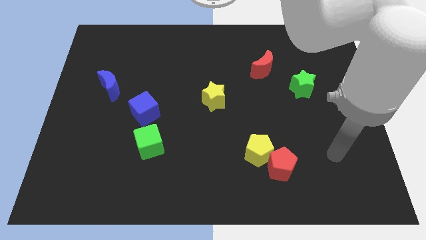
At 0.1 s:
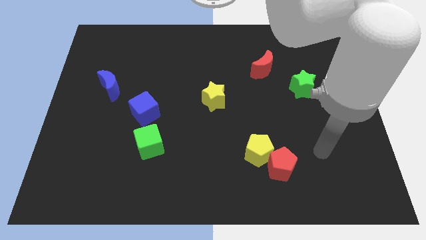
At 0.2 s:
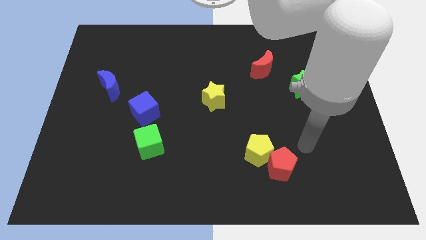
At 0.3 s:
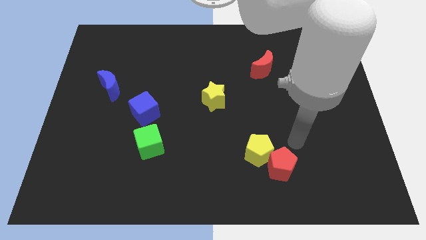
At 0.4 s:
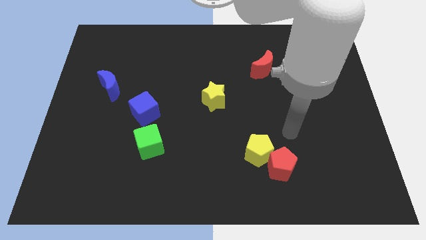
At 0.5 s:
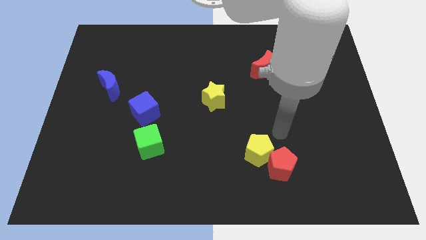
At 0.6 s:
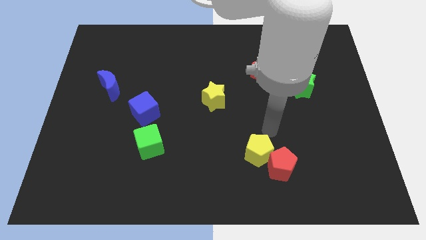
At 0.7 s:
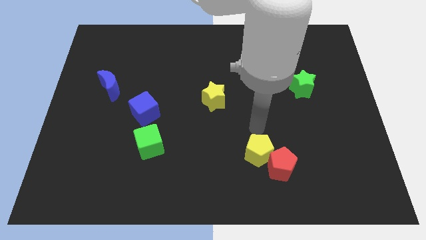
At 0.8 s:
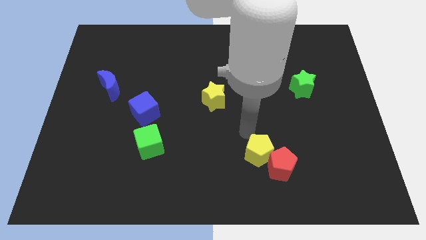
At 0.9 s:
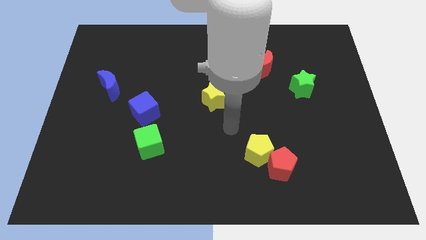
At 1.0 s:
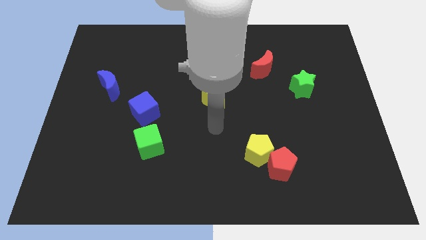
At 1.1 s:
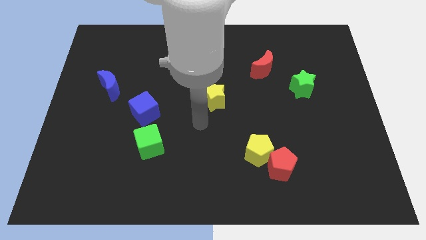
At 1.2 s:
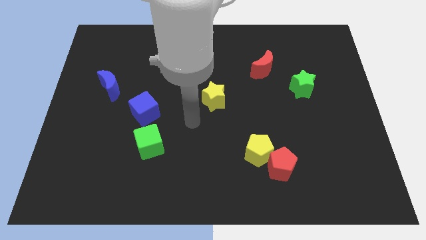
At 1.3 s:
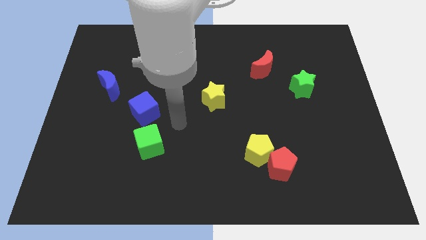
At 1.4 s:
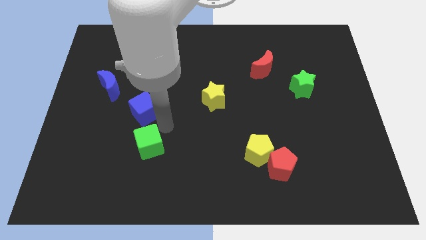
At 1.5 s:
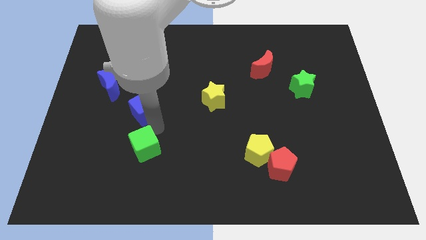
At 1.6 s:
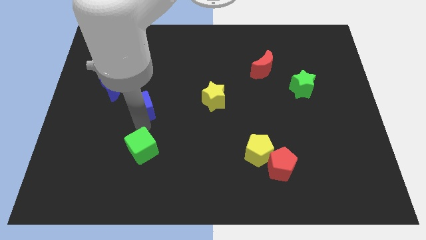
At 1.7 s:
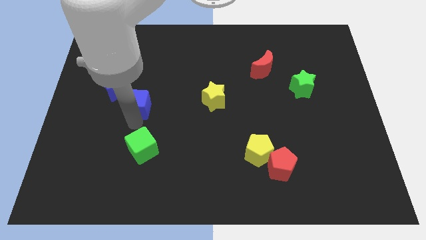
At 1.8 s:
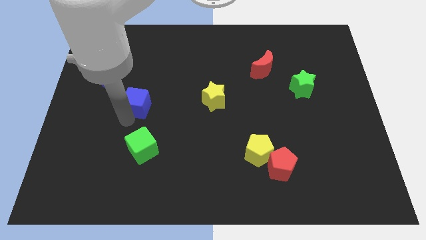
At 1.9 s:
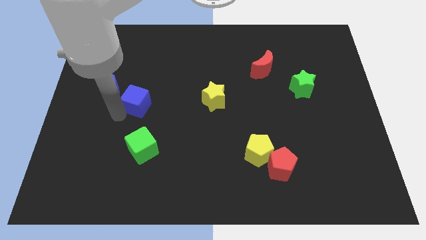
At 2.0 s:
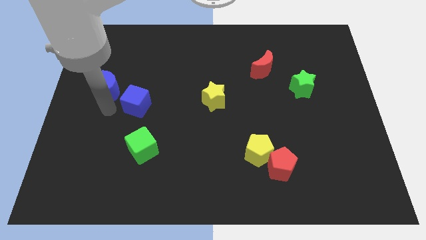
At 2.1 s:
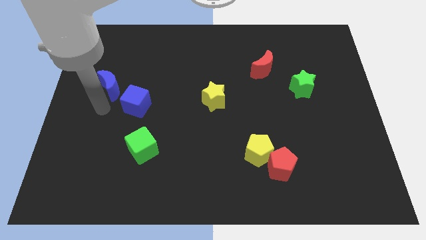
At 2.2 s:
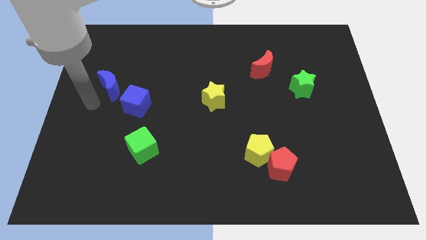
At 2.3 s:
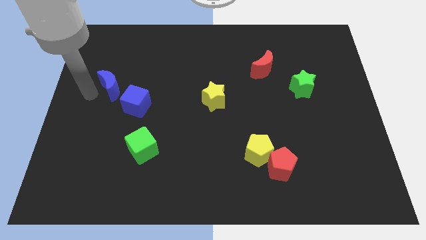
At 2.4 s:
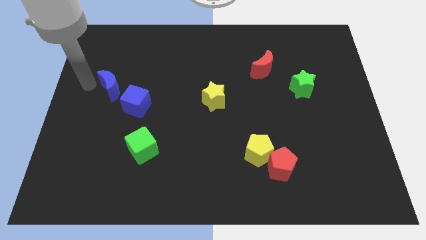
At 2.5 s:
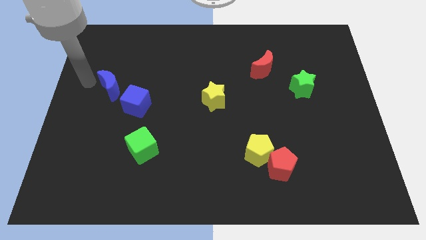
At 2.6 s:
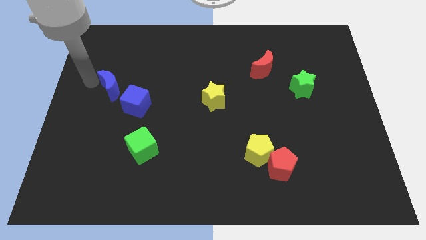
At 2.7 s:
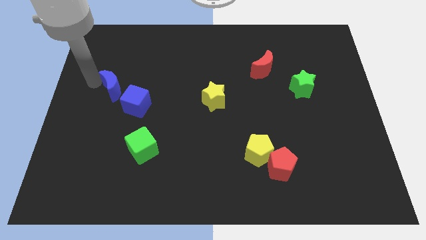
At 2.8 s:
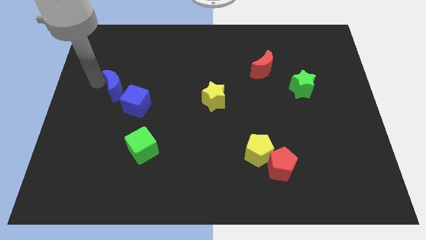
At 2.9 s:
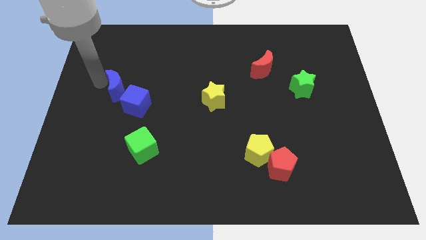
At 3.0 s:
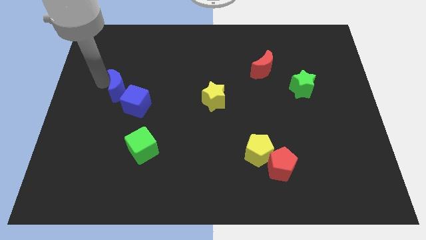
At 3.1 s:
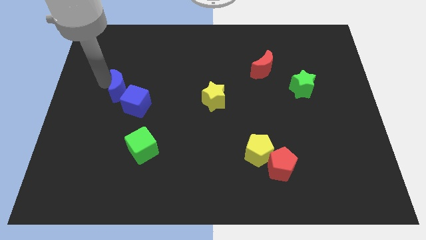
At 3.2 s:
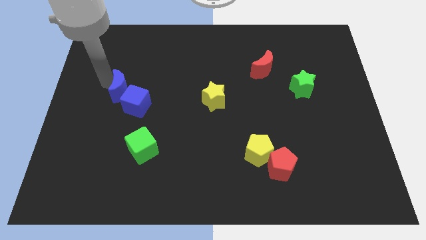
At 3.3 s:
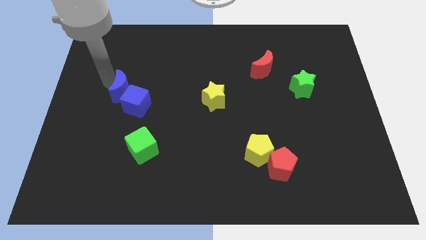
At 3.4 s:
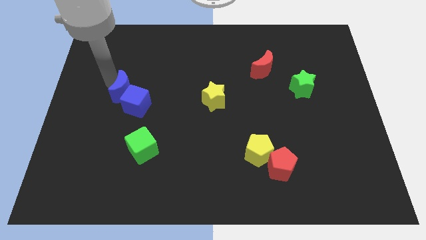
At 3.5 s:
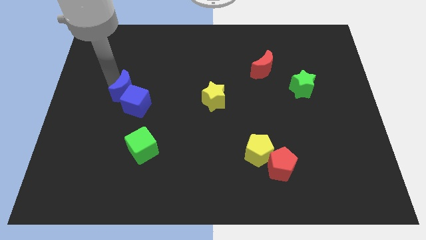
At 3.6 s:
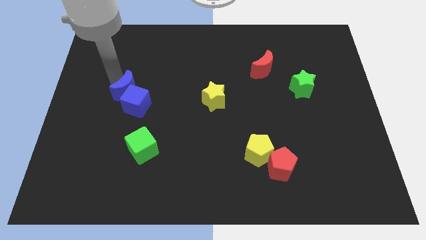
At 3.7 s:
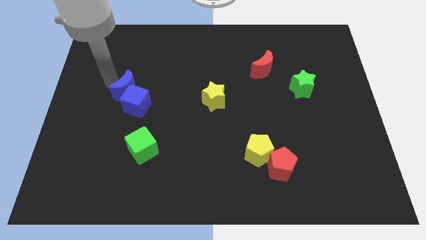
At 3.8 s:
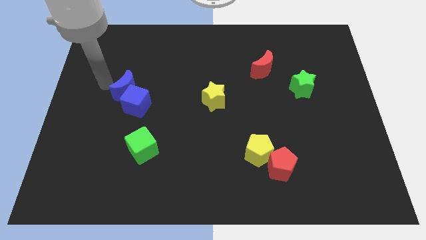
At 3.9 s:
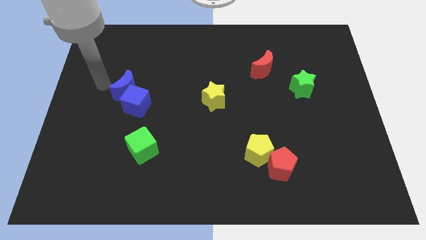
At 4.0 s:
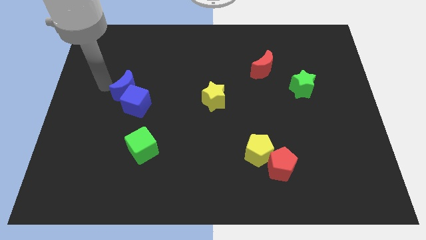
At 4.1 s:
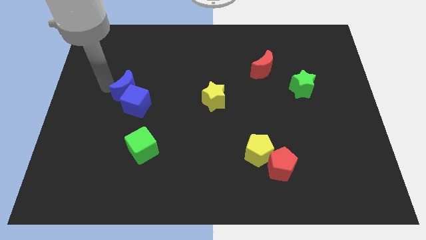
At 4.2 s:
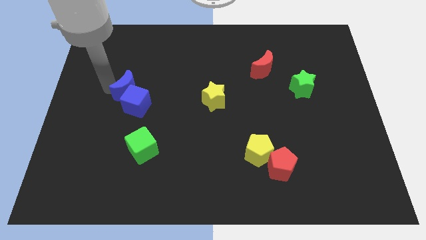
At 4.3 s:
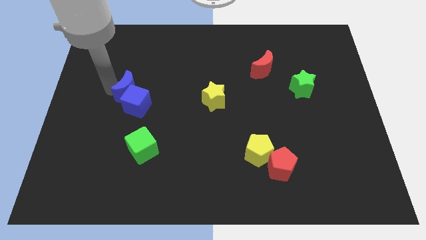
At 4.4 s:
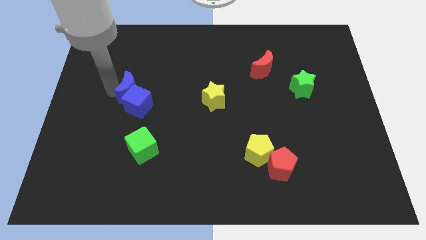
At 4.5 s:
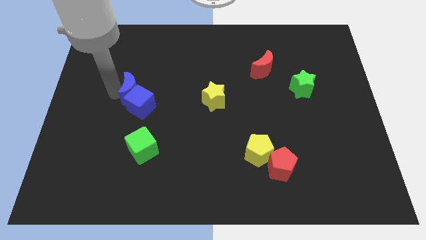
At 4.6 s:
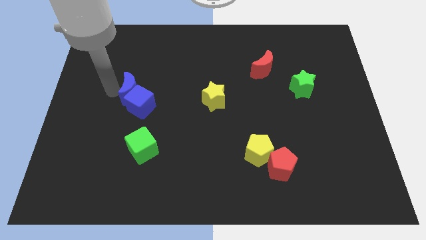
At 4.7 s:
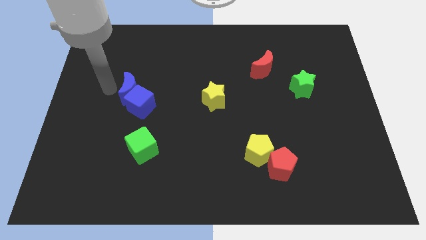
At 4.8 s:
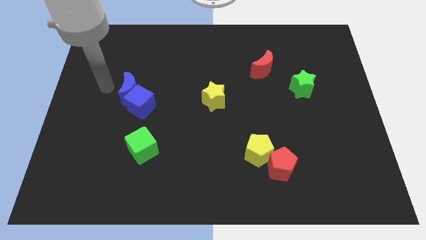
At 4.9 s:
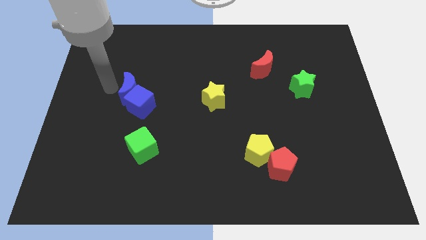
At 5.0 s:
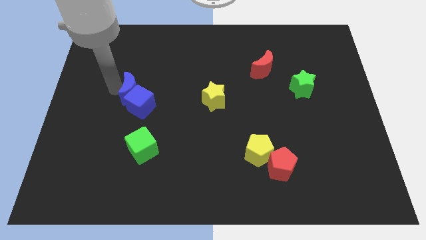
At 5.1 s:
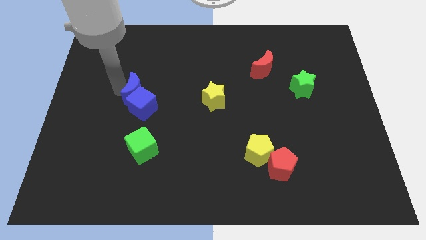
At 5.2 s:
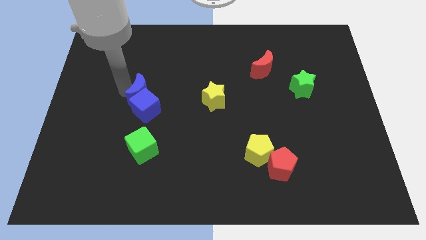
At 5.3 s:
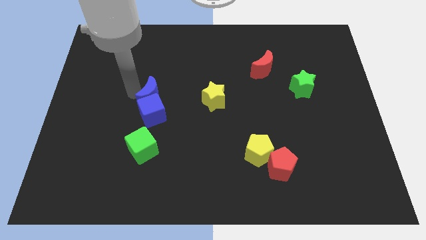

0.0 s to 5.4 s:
push the blue moon to the left side of the yellow star

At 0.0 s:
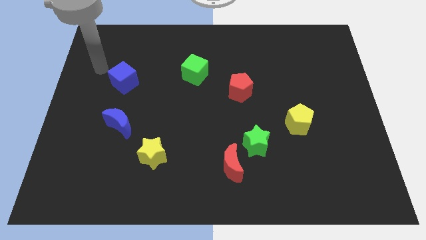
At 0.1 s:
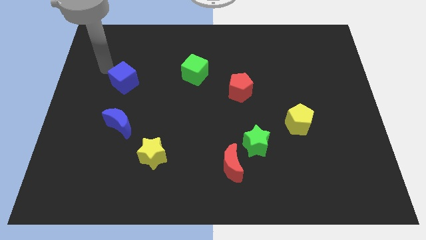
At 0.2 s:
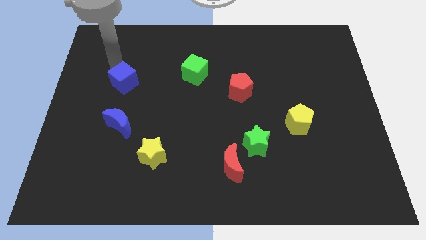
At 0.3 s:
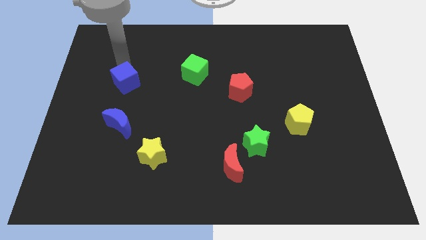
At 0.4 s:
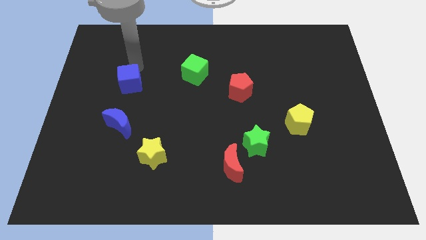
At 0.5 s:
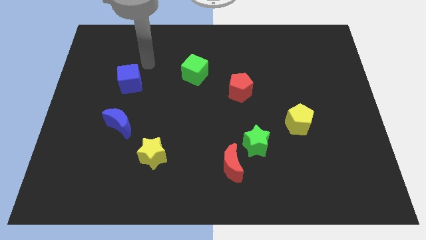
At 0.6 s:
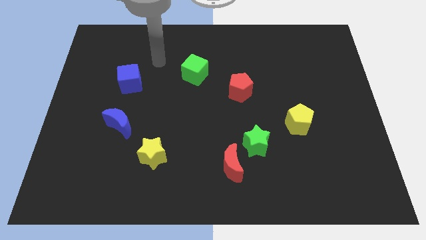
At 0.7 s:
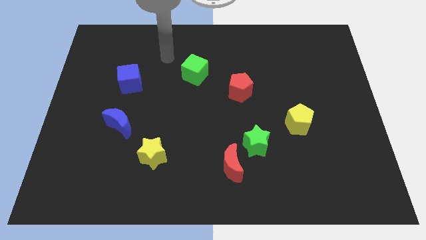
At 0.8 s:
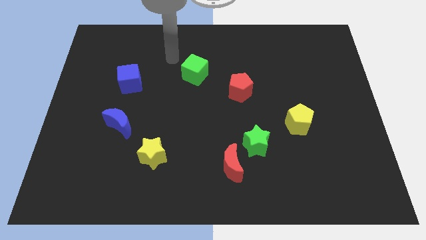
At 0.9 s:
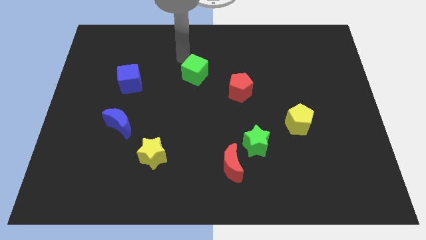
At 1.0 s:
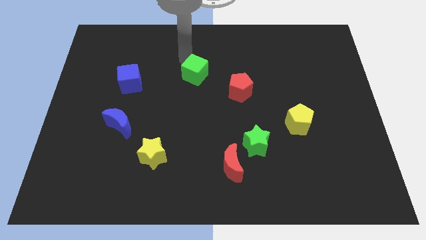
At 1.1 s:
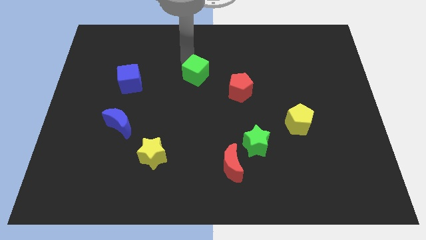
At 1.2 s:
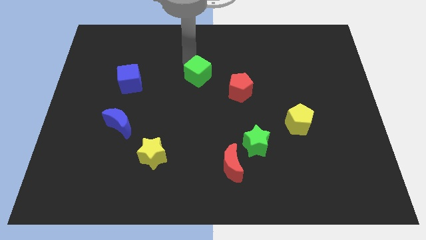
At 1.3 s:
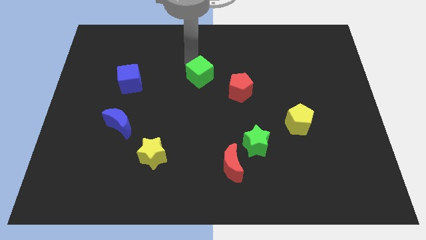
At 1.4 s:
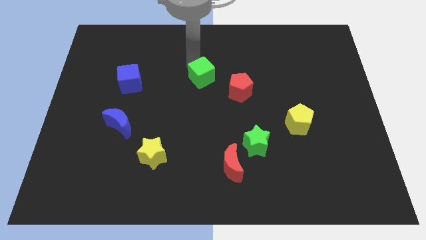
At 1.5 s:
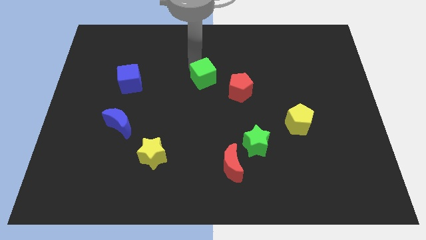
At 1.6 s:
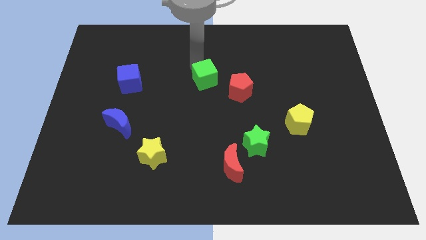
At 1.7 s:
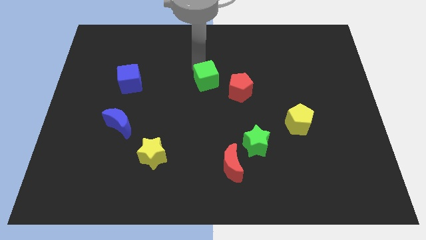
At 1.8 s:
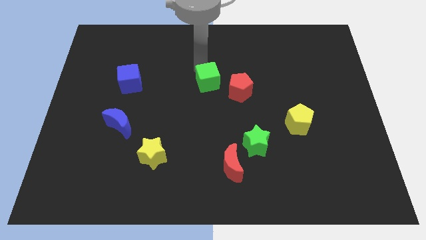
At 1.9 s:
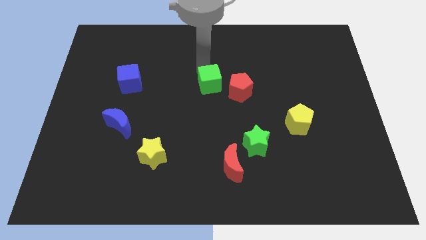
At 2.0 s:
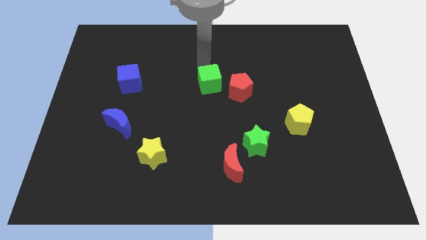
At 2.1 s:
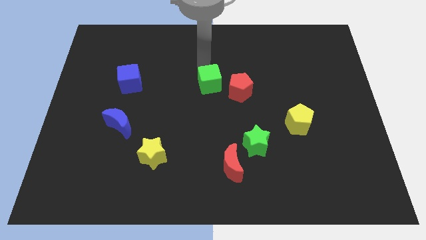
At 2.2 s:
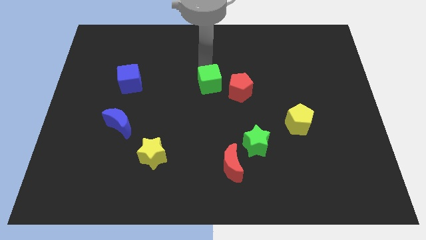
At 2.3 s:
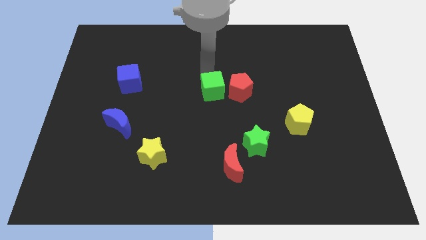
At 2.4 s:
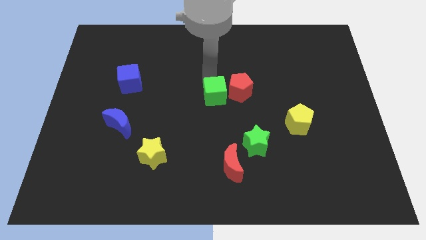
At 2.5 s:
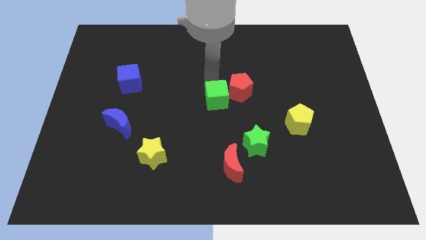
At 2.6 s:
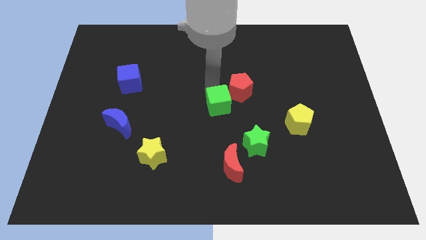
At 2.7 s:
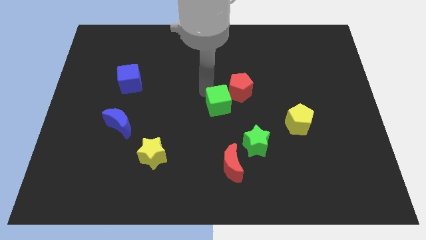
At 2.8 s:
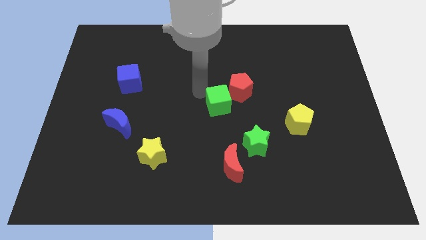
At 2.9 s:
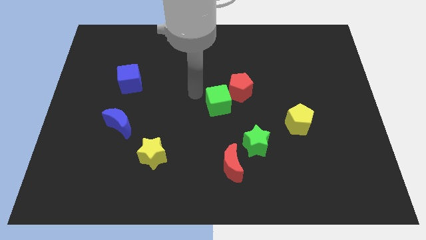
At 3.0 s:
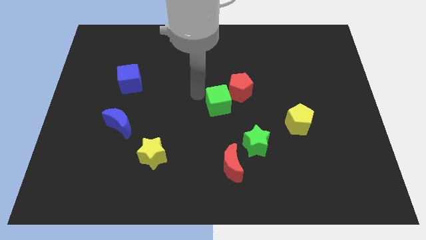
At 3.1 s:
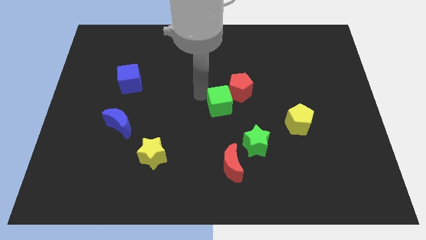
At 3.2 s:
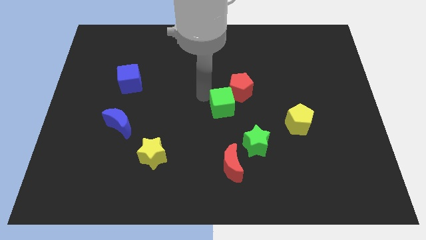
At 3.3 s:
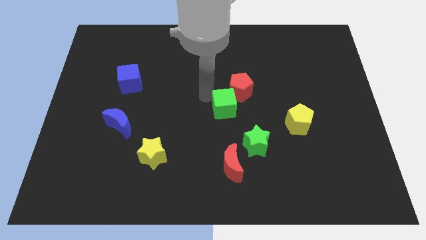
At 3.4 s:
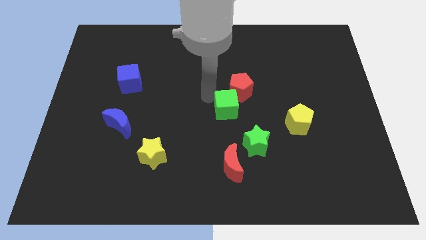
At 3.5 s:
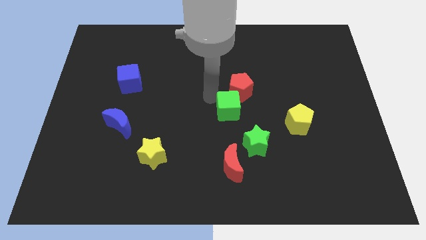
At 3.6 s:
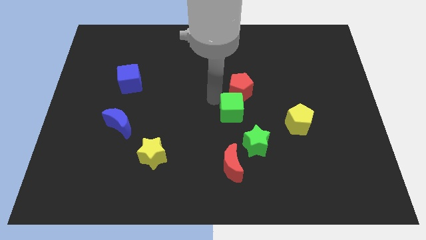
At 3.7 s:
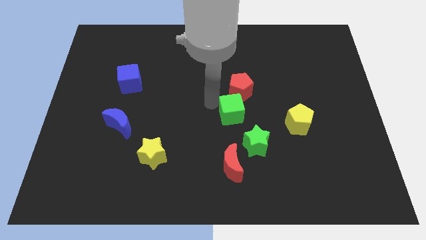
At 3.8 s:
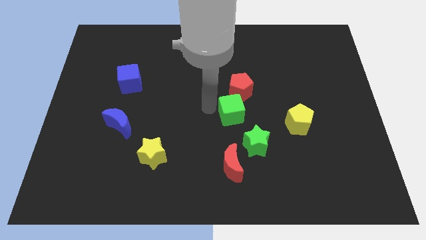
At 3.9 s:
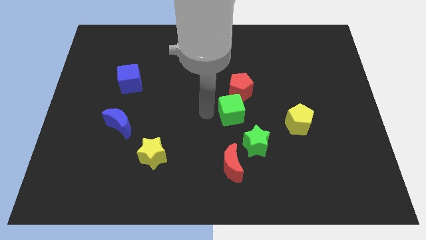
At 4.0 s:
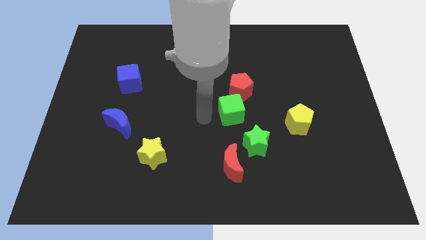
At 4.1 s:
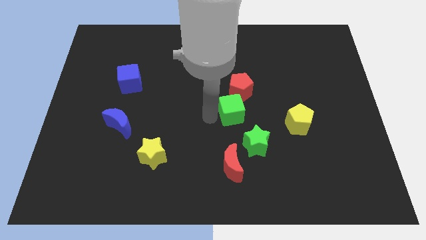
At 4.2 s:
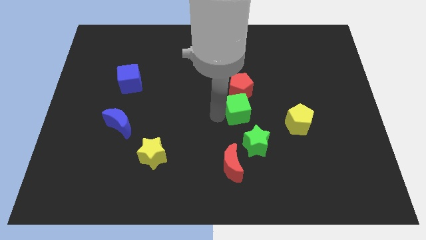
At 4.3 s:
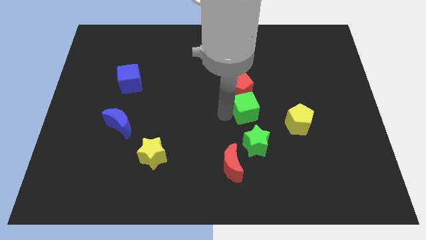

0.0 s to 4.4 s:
move the green cube diagonally down and to the right of the red pentagon
